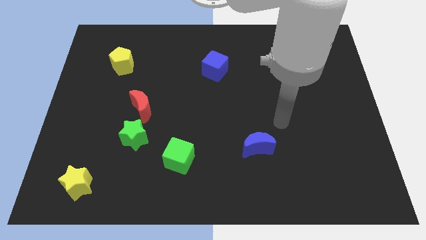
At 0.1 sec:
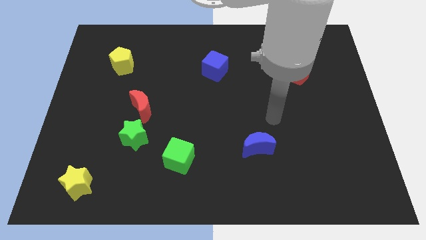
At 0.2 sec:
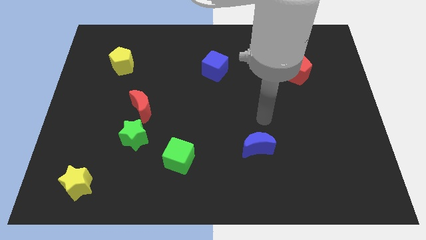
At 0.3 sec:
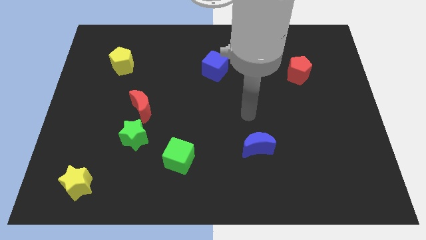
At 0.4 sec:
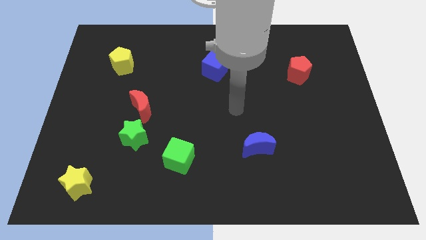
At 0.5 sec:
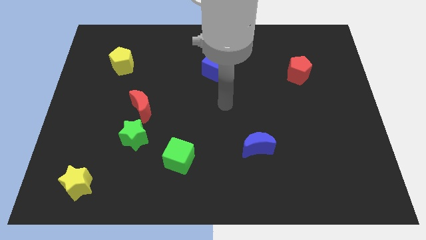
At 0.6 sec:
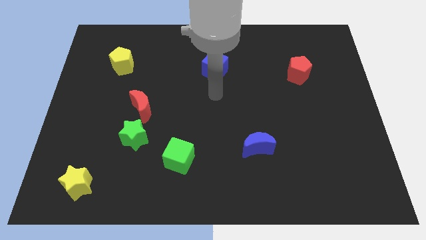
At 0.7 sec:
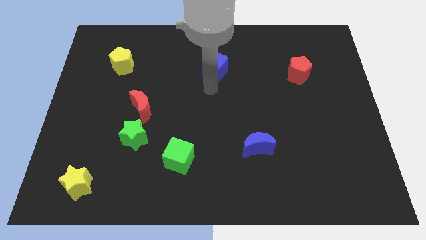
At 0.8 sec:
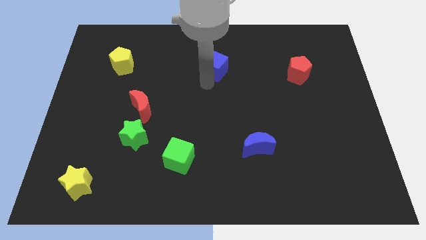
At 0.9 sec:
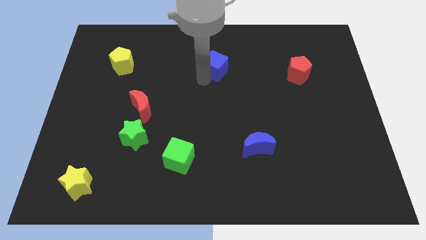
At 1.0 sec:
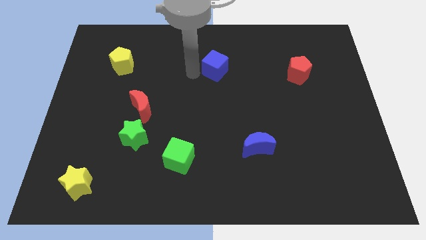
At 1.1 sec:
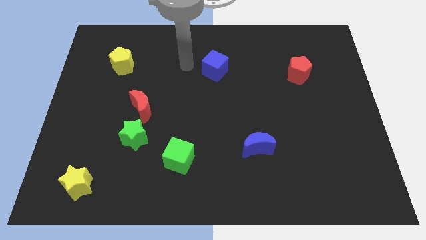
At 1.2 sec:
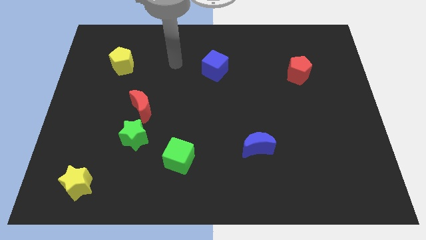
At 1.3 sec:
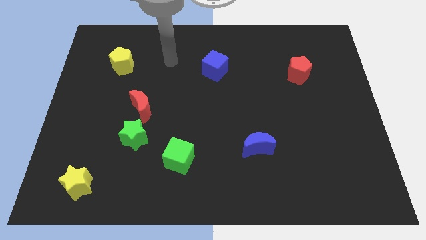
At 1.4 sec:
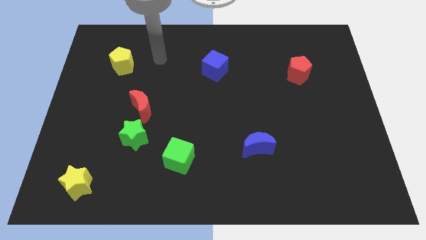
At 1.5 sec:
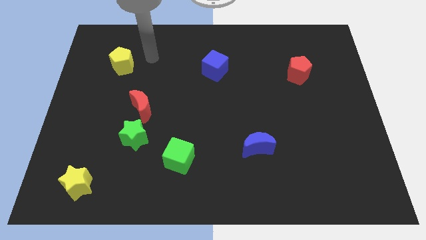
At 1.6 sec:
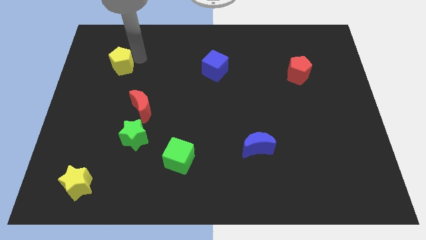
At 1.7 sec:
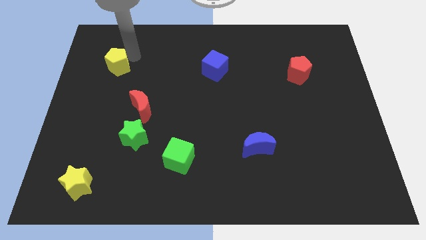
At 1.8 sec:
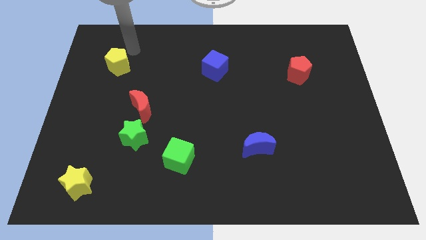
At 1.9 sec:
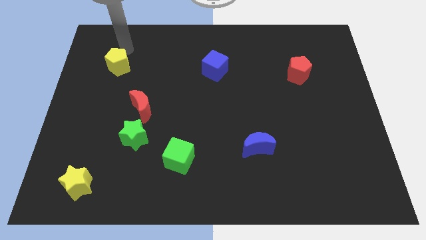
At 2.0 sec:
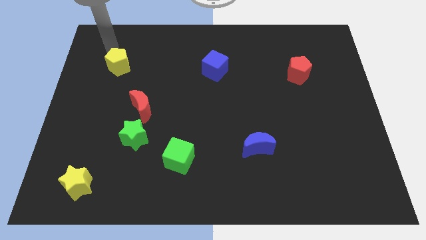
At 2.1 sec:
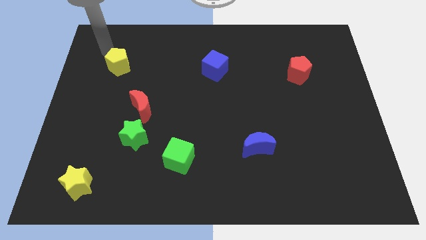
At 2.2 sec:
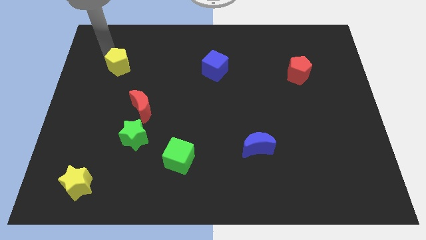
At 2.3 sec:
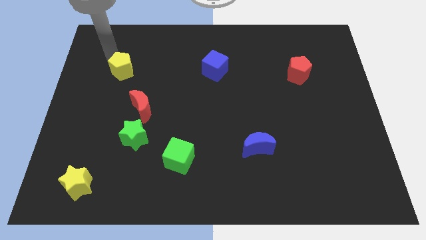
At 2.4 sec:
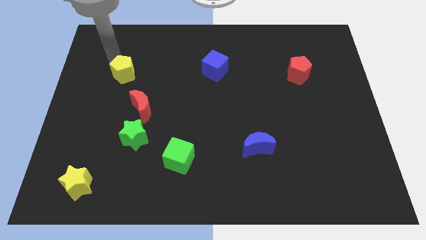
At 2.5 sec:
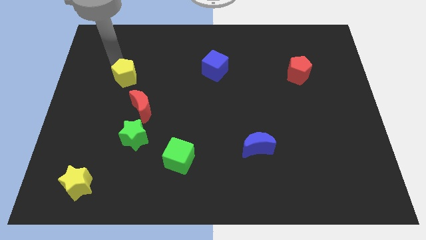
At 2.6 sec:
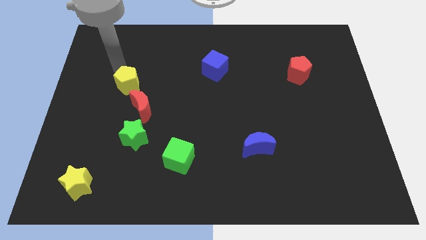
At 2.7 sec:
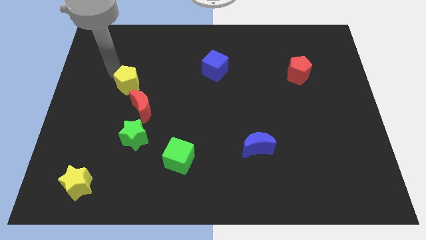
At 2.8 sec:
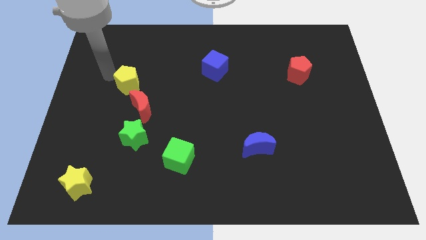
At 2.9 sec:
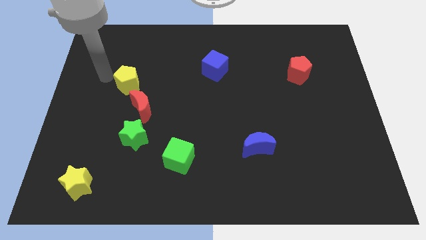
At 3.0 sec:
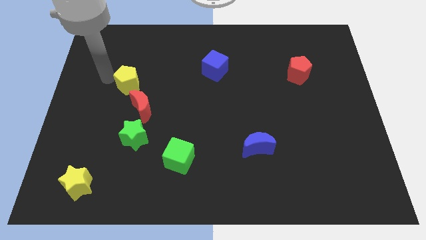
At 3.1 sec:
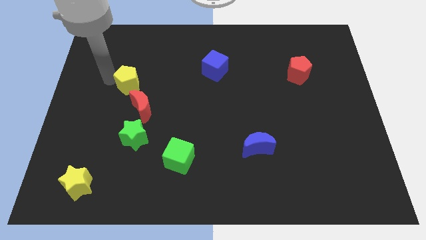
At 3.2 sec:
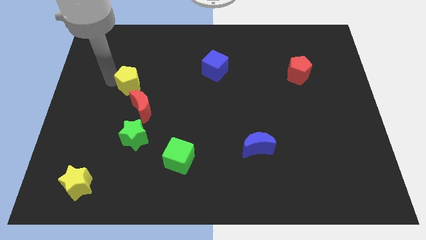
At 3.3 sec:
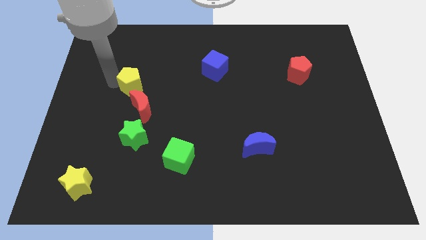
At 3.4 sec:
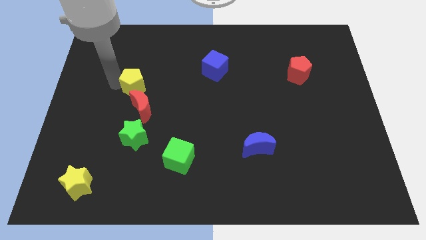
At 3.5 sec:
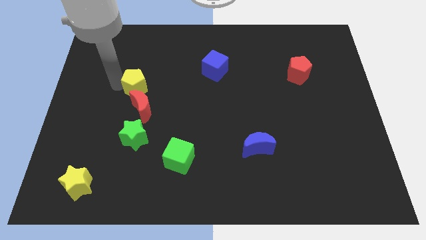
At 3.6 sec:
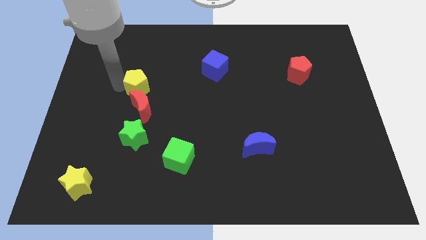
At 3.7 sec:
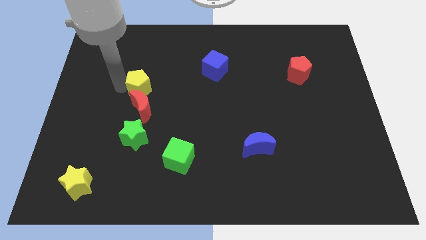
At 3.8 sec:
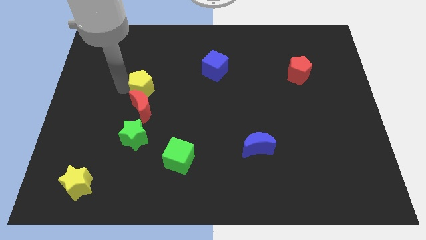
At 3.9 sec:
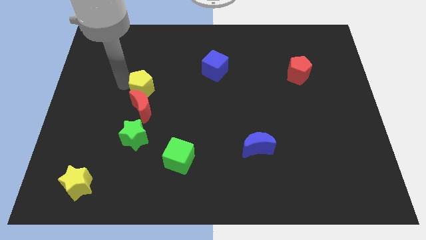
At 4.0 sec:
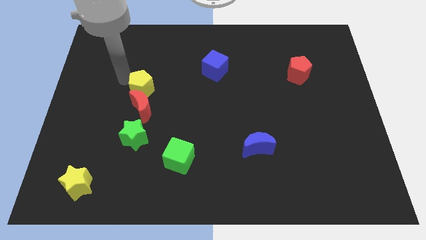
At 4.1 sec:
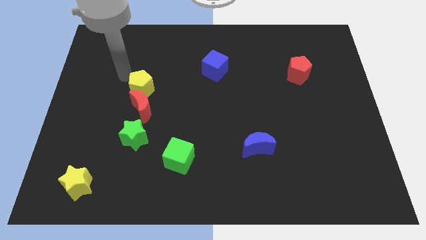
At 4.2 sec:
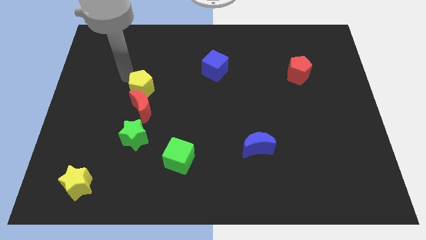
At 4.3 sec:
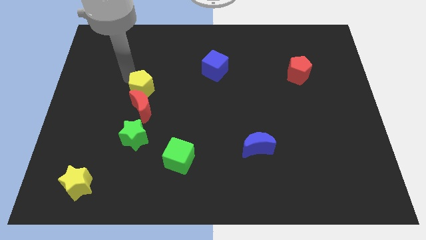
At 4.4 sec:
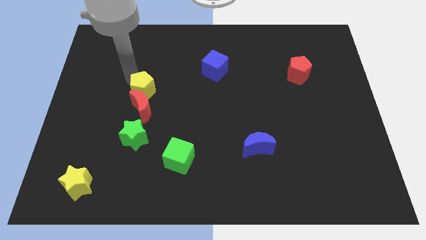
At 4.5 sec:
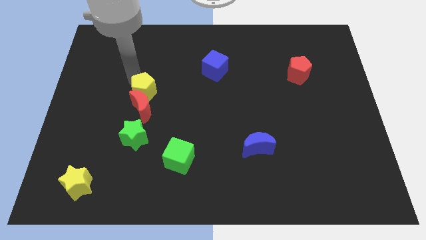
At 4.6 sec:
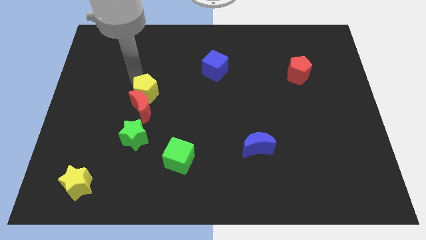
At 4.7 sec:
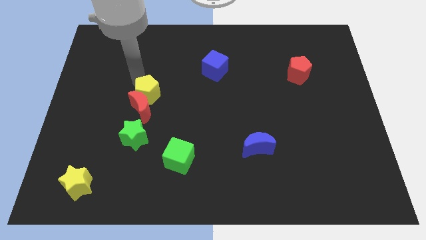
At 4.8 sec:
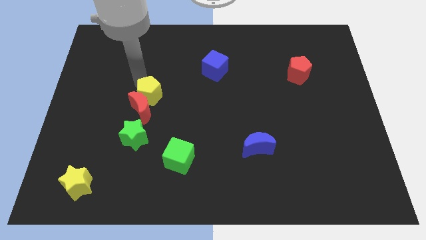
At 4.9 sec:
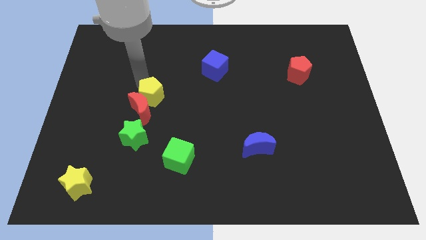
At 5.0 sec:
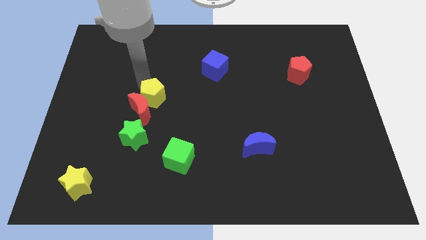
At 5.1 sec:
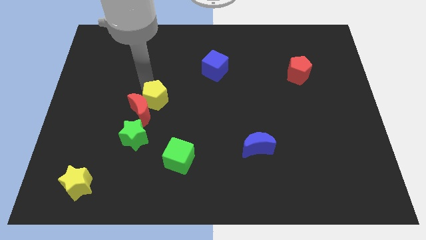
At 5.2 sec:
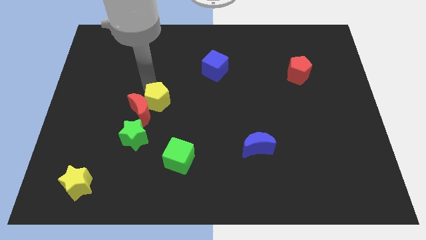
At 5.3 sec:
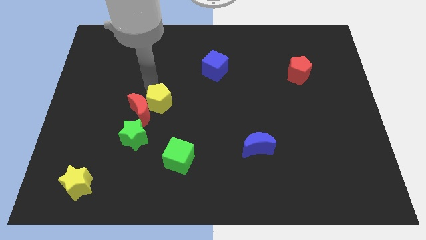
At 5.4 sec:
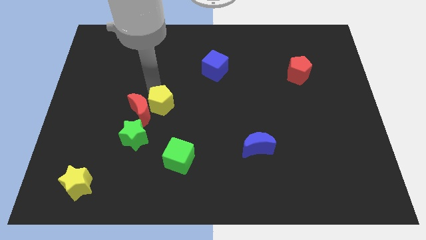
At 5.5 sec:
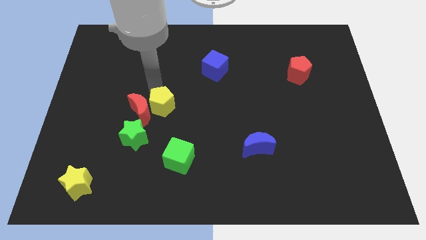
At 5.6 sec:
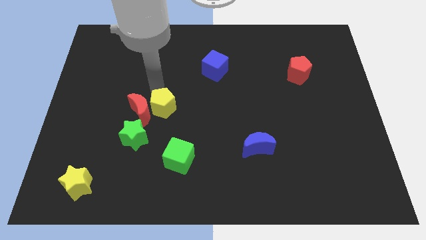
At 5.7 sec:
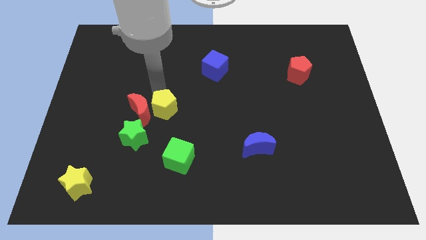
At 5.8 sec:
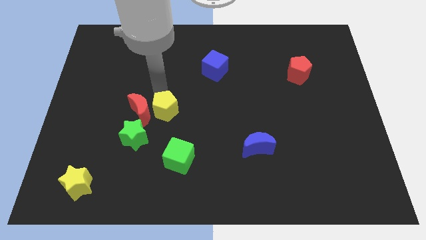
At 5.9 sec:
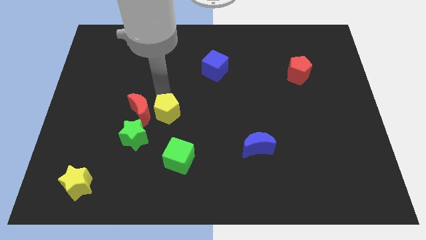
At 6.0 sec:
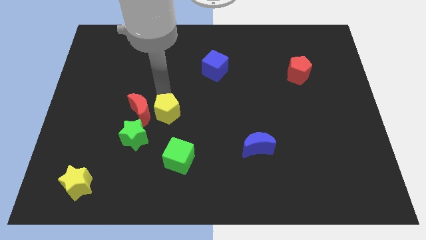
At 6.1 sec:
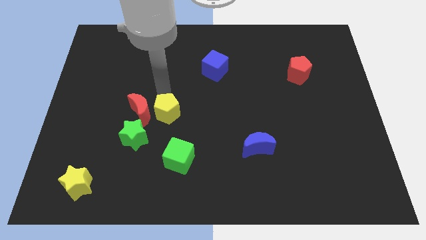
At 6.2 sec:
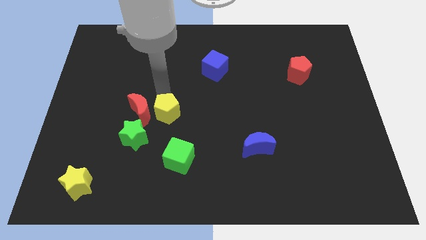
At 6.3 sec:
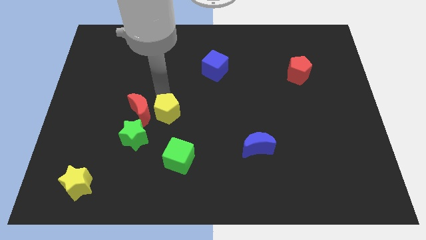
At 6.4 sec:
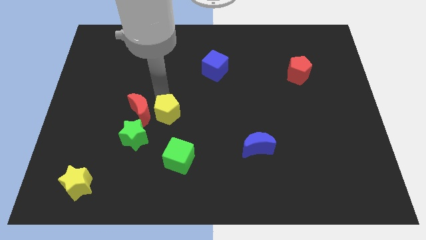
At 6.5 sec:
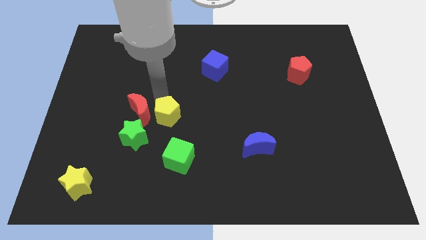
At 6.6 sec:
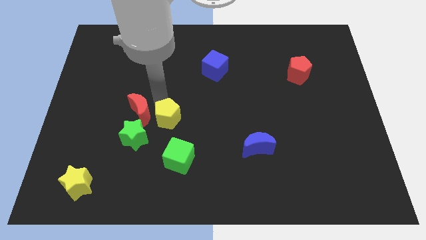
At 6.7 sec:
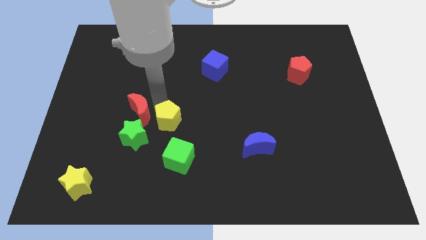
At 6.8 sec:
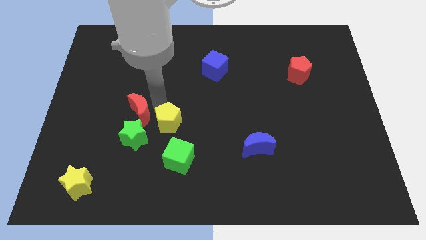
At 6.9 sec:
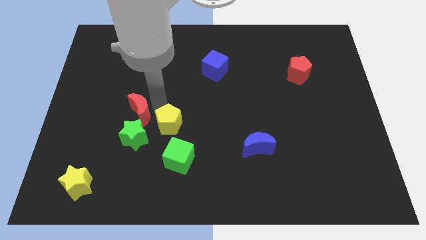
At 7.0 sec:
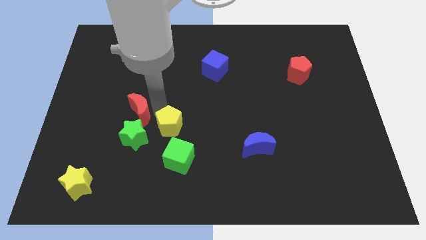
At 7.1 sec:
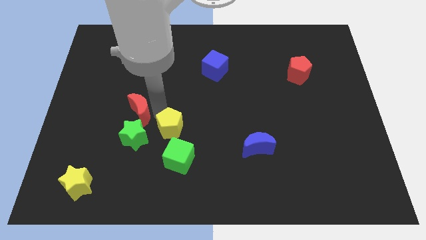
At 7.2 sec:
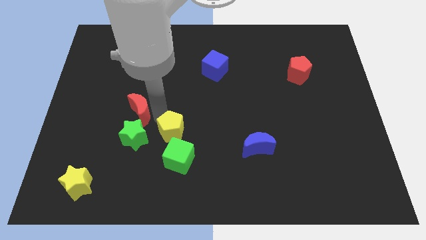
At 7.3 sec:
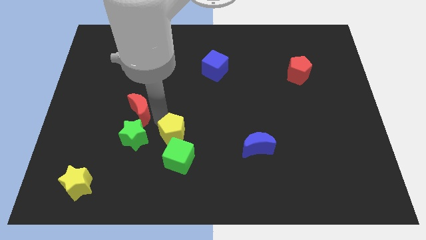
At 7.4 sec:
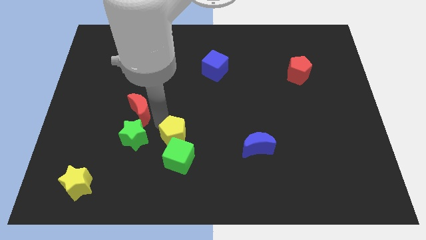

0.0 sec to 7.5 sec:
put the yellow pentagon to the green cube
